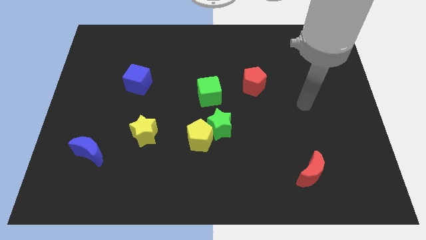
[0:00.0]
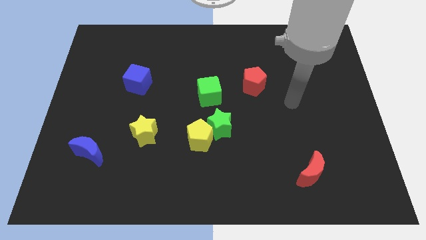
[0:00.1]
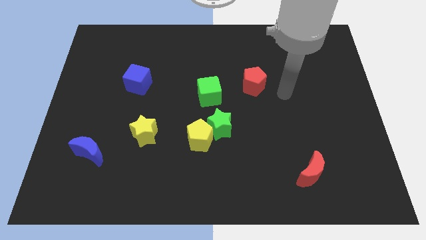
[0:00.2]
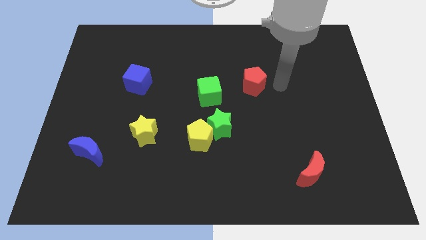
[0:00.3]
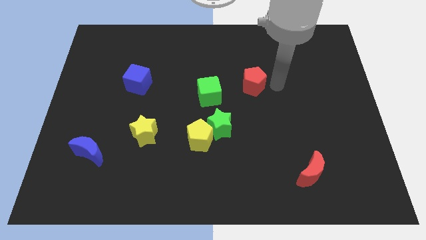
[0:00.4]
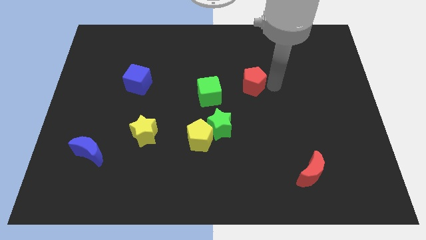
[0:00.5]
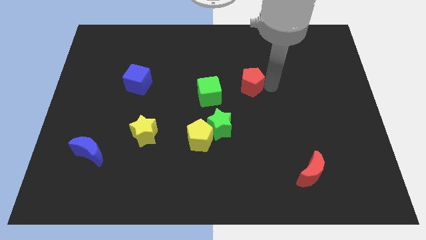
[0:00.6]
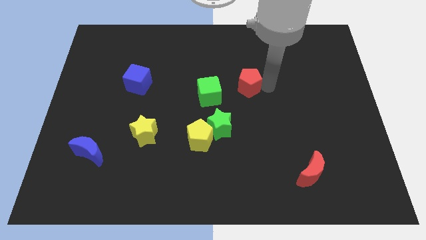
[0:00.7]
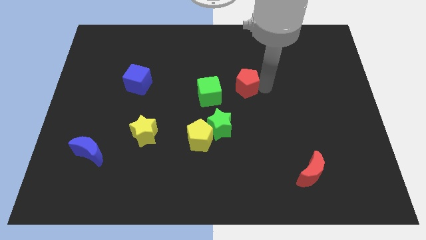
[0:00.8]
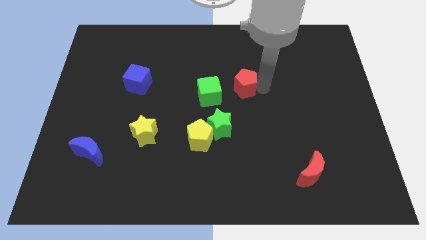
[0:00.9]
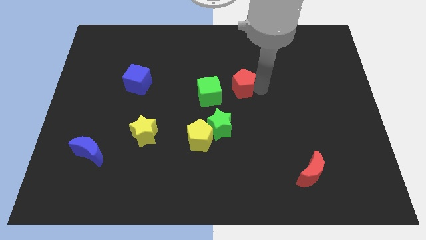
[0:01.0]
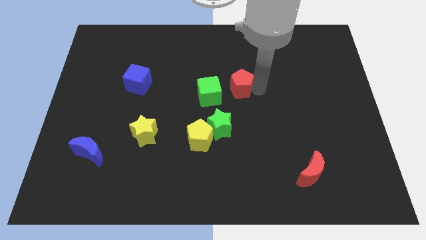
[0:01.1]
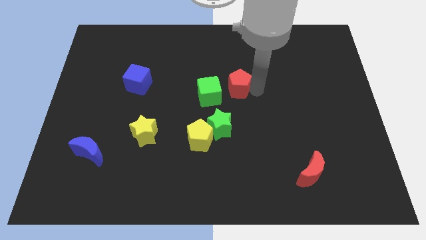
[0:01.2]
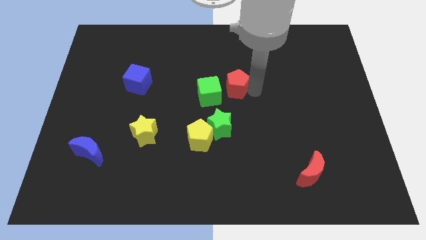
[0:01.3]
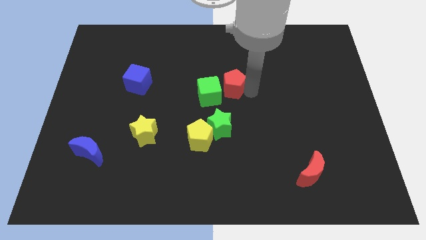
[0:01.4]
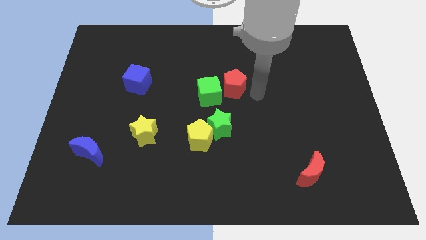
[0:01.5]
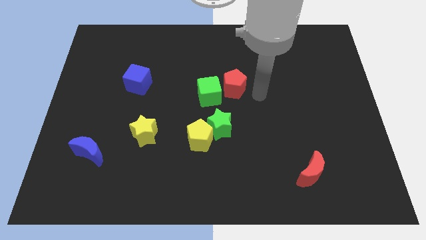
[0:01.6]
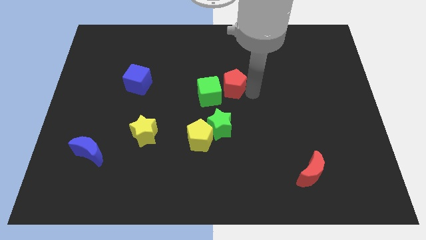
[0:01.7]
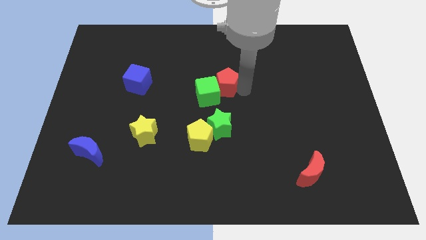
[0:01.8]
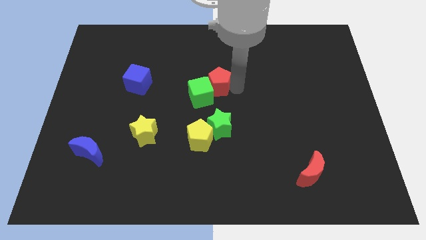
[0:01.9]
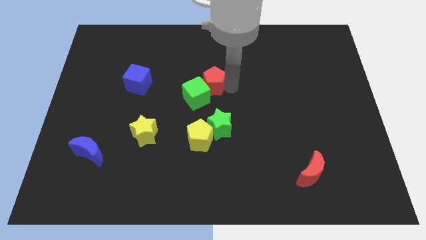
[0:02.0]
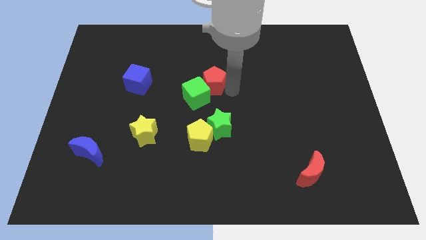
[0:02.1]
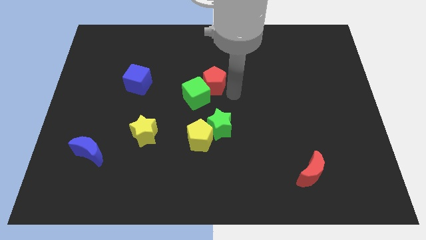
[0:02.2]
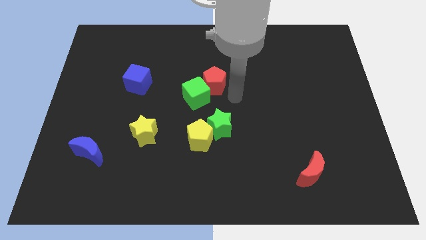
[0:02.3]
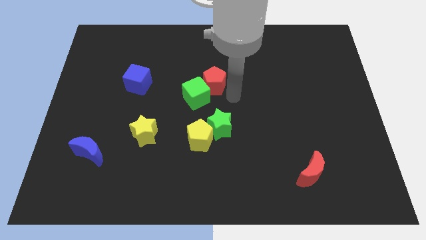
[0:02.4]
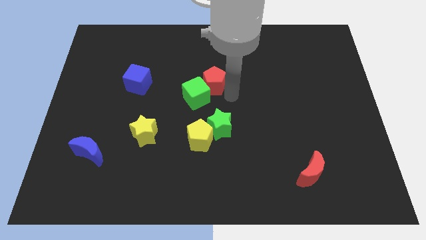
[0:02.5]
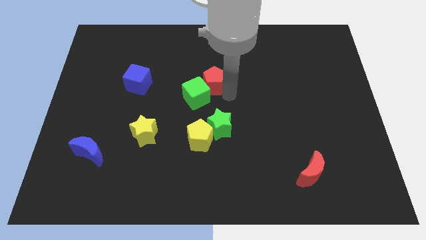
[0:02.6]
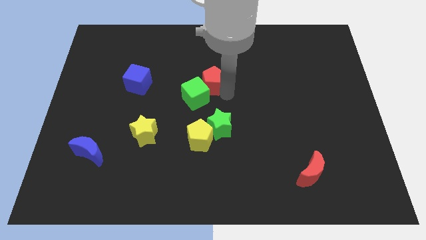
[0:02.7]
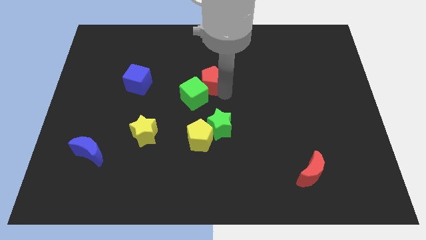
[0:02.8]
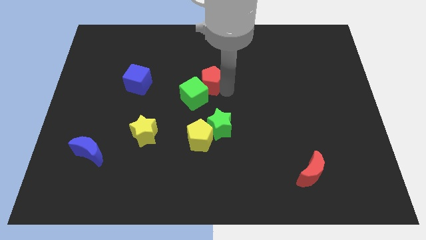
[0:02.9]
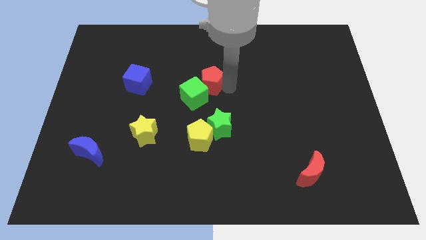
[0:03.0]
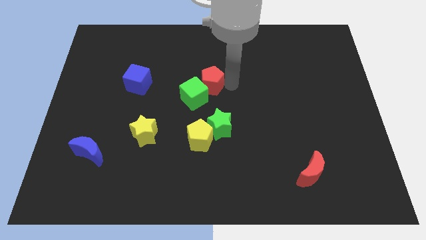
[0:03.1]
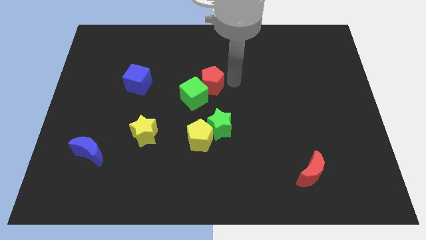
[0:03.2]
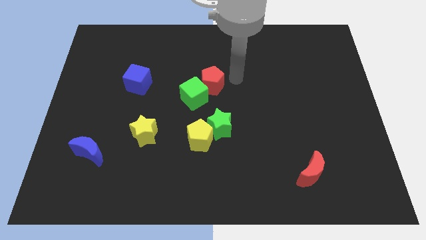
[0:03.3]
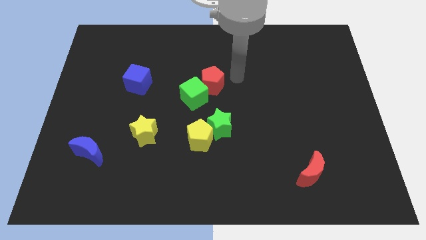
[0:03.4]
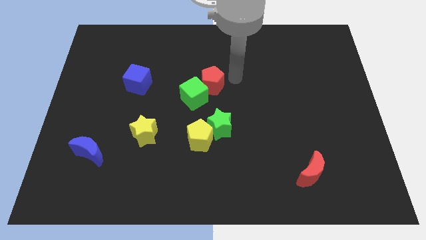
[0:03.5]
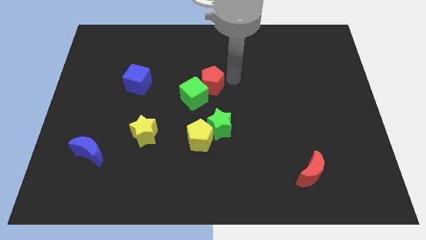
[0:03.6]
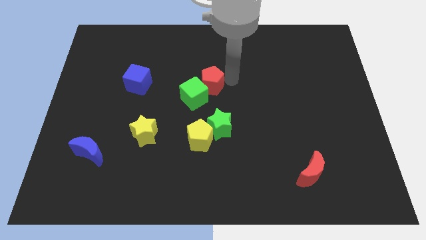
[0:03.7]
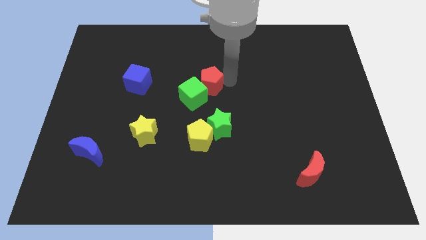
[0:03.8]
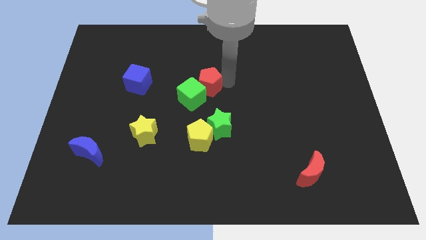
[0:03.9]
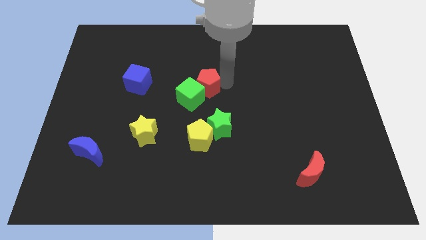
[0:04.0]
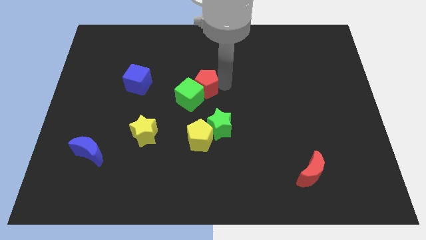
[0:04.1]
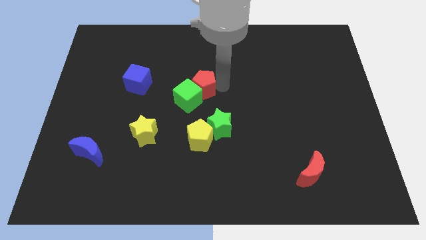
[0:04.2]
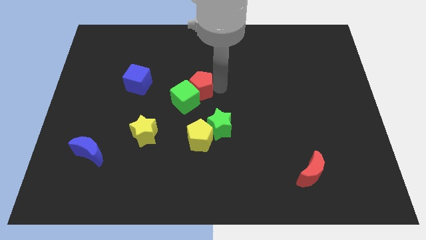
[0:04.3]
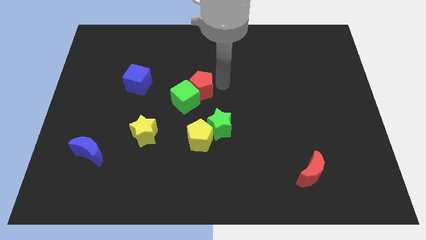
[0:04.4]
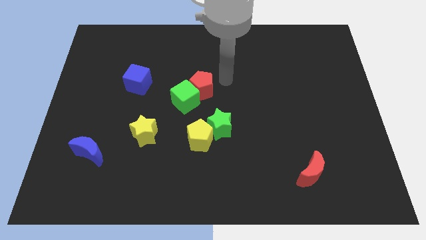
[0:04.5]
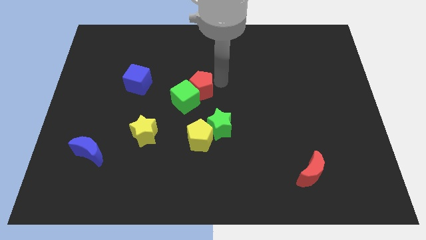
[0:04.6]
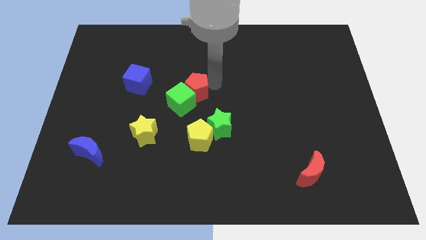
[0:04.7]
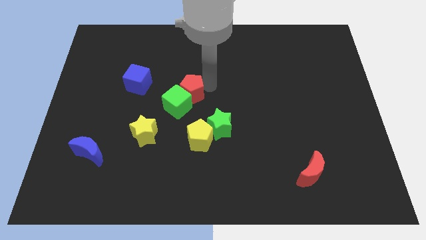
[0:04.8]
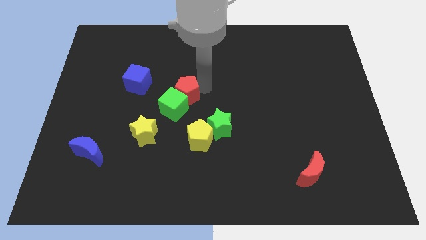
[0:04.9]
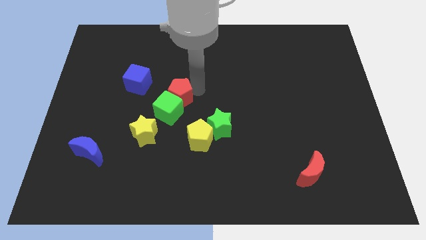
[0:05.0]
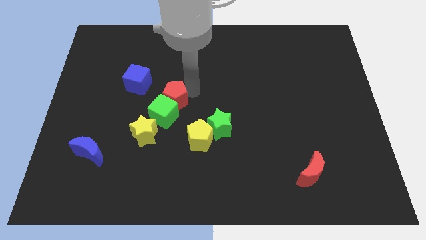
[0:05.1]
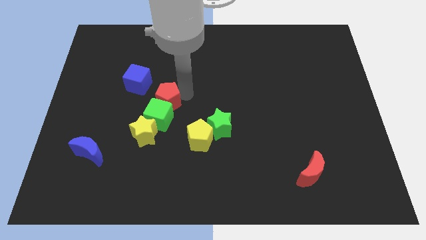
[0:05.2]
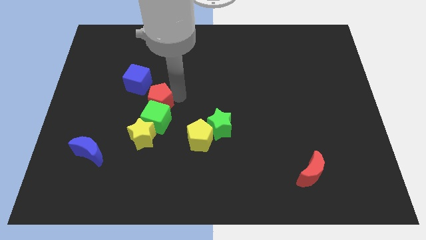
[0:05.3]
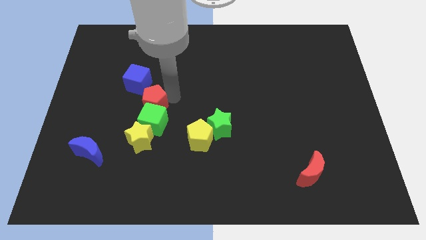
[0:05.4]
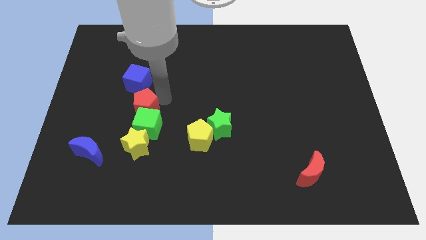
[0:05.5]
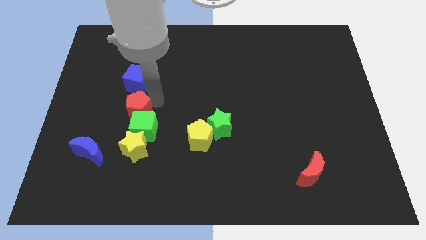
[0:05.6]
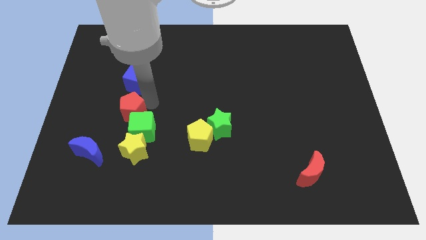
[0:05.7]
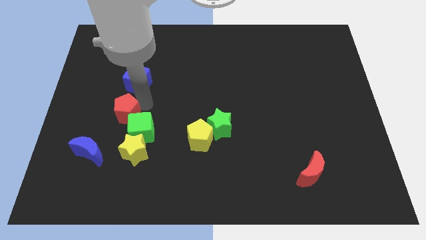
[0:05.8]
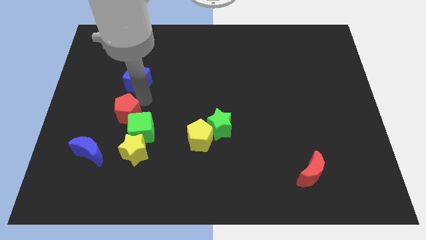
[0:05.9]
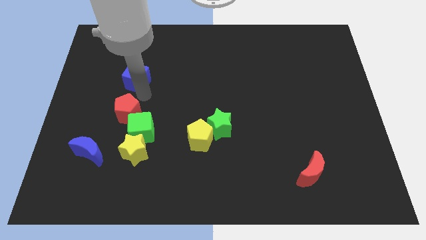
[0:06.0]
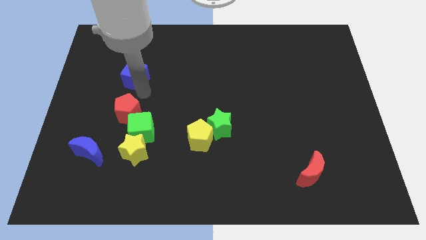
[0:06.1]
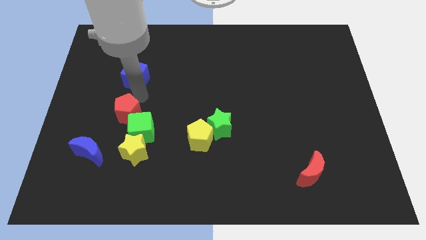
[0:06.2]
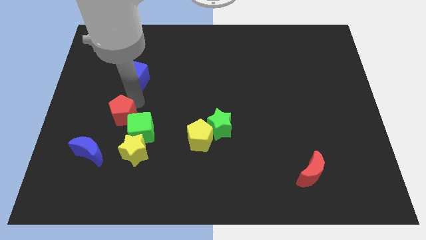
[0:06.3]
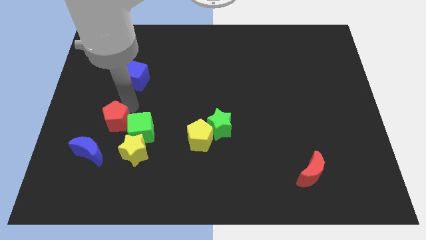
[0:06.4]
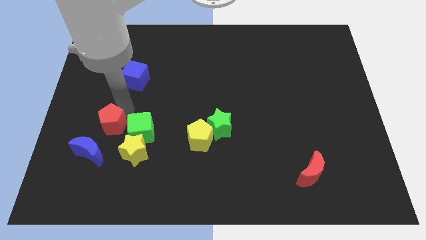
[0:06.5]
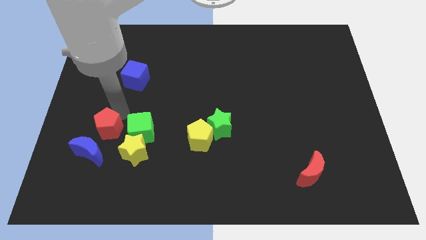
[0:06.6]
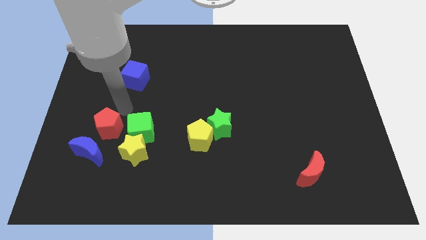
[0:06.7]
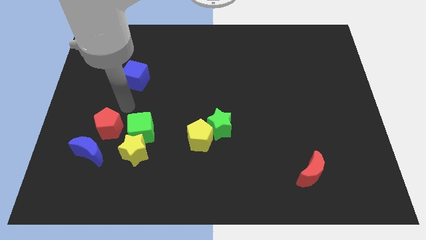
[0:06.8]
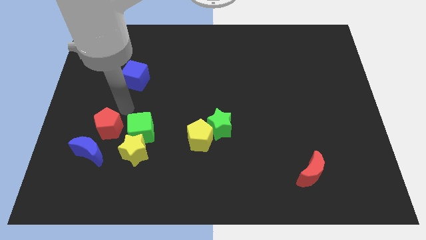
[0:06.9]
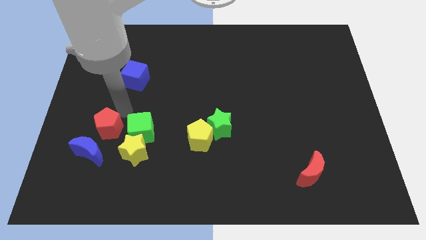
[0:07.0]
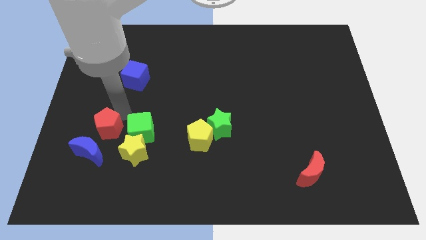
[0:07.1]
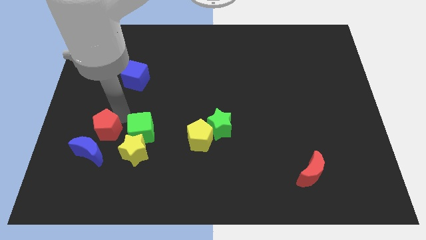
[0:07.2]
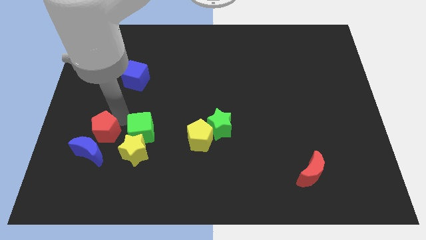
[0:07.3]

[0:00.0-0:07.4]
move the red pentagon to the blue moon
